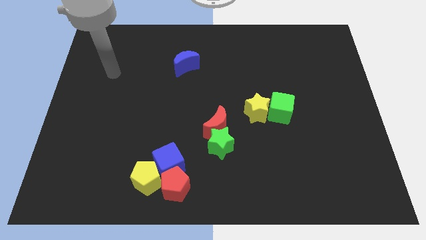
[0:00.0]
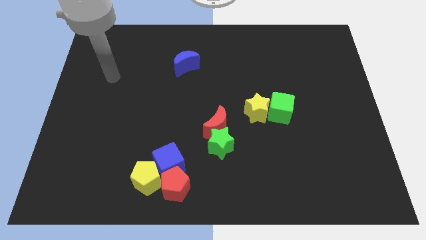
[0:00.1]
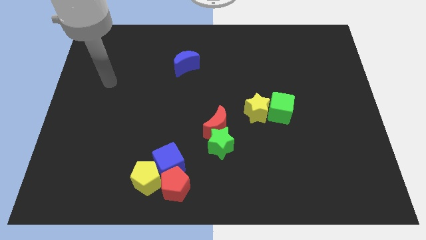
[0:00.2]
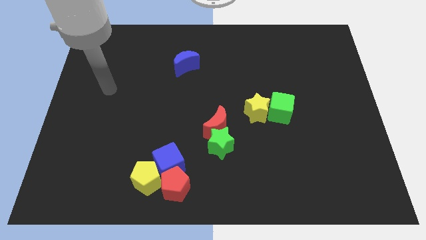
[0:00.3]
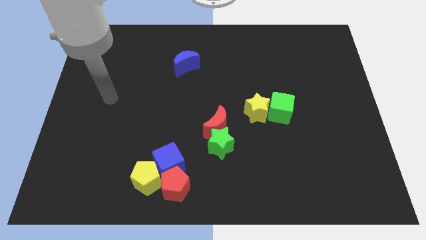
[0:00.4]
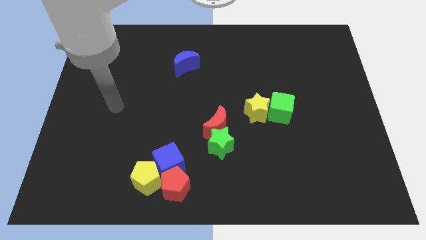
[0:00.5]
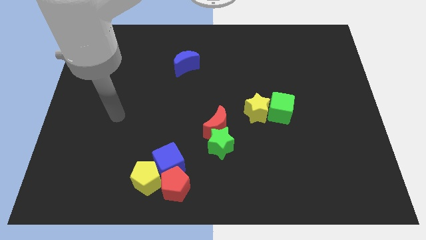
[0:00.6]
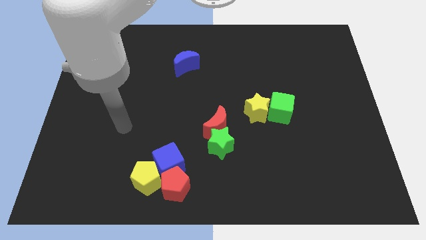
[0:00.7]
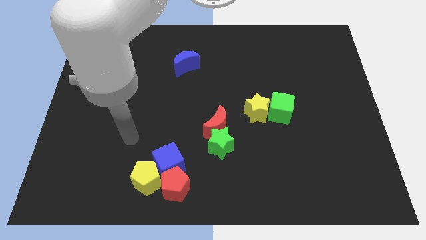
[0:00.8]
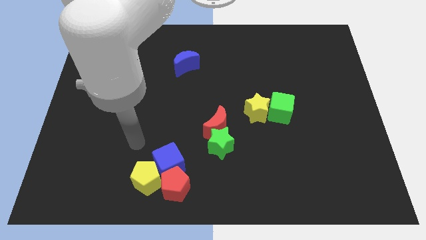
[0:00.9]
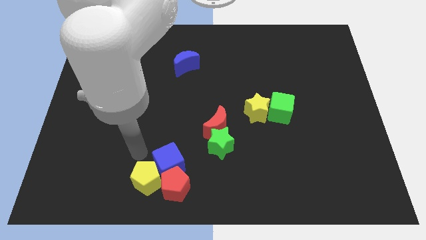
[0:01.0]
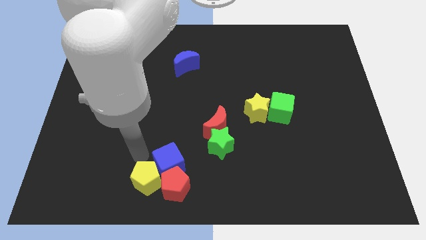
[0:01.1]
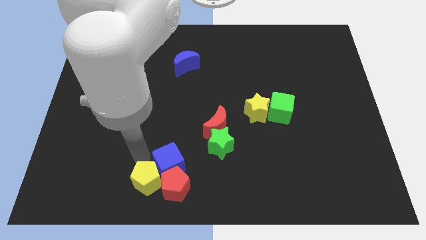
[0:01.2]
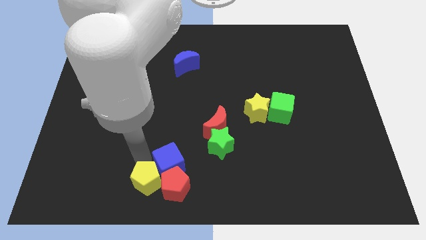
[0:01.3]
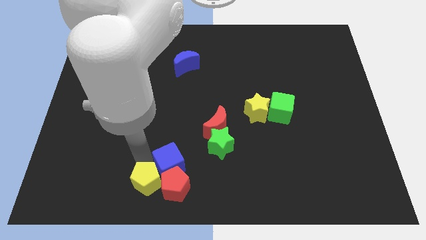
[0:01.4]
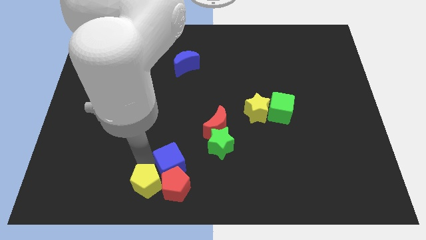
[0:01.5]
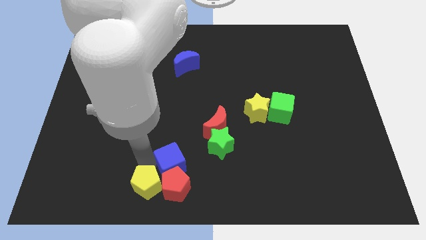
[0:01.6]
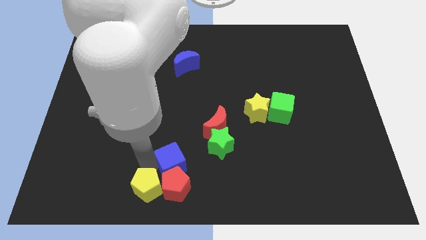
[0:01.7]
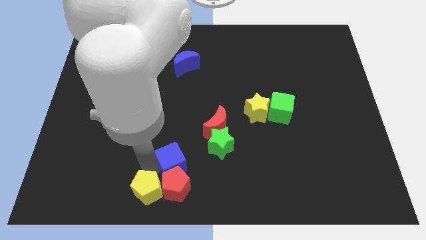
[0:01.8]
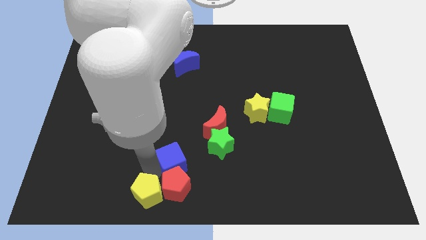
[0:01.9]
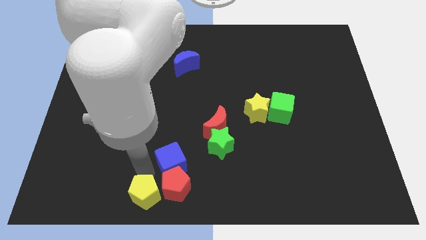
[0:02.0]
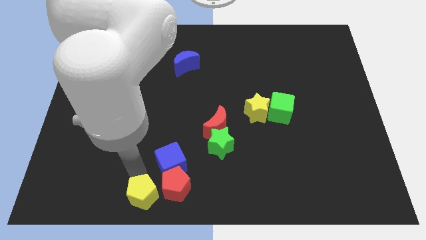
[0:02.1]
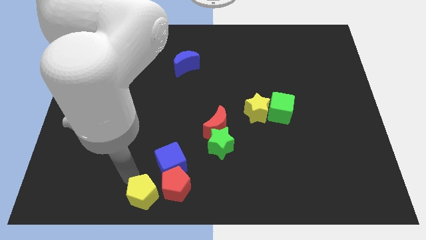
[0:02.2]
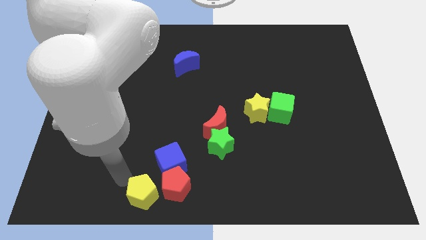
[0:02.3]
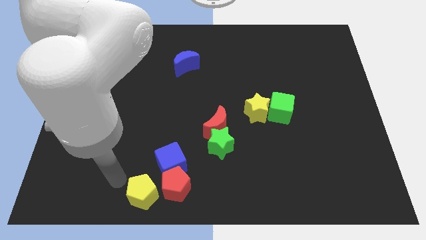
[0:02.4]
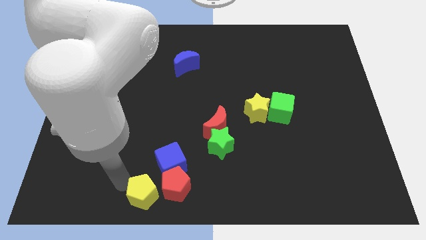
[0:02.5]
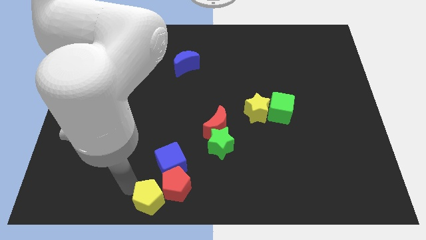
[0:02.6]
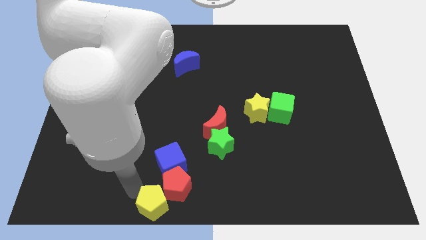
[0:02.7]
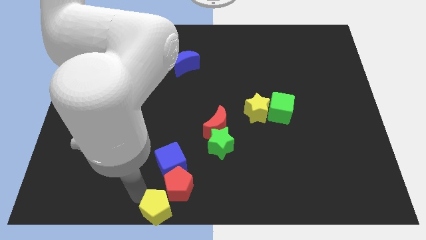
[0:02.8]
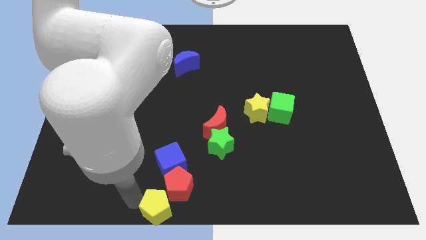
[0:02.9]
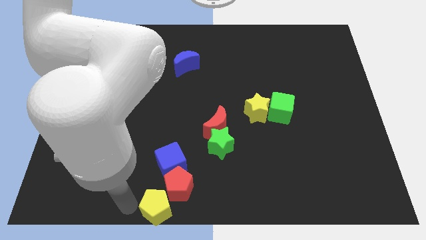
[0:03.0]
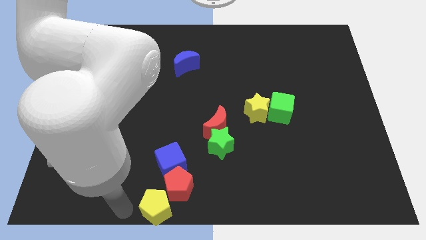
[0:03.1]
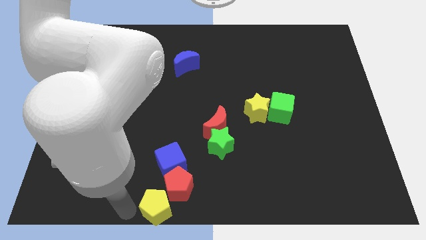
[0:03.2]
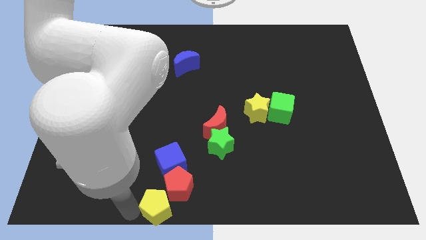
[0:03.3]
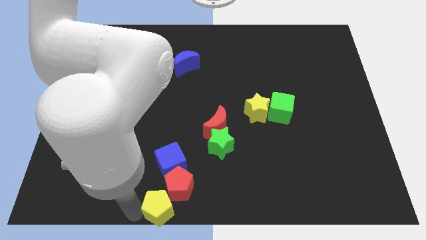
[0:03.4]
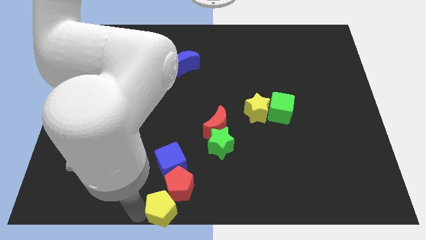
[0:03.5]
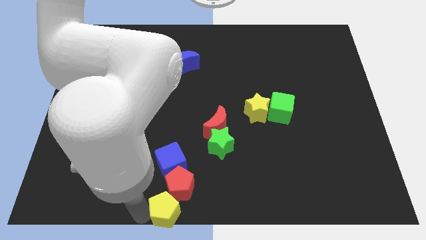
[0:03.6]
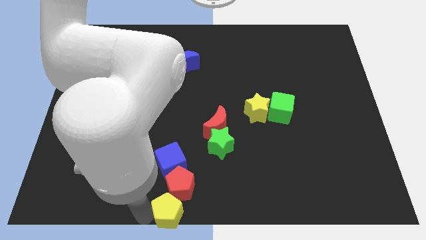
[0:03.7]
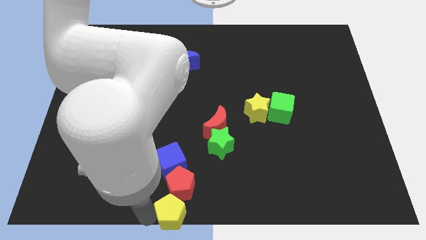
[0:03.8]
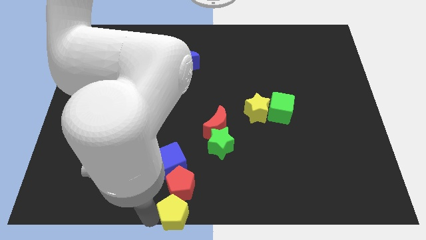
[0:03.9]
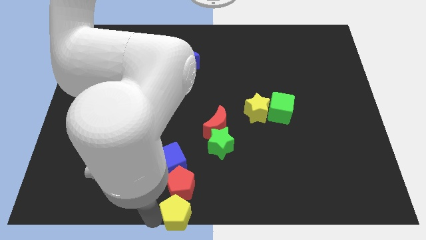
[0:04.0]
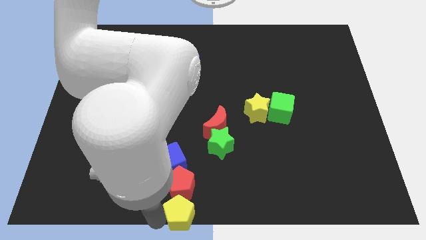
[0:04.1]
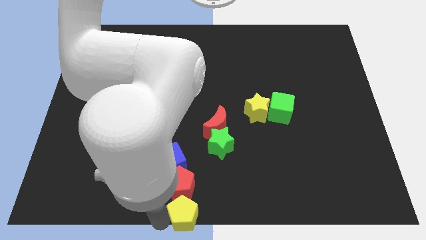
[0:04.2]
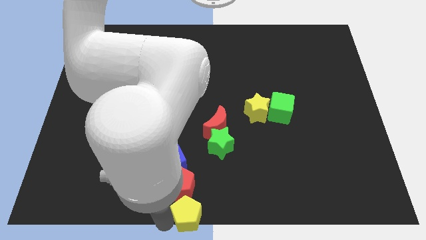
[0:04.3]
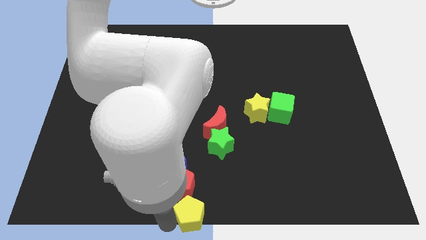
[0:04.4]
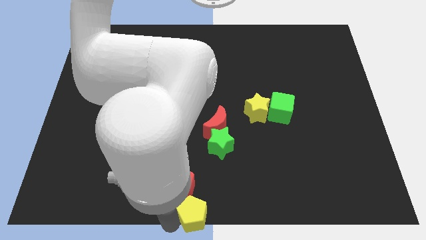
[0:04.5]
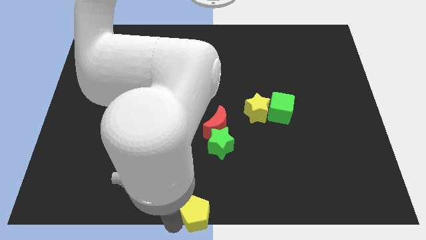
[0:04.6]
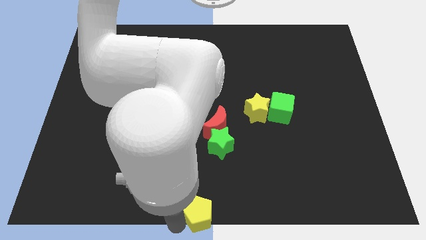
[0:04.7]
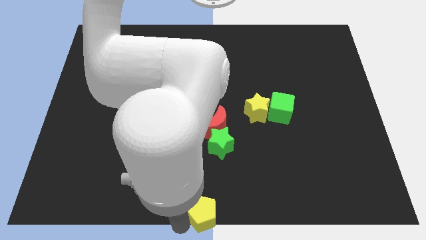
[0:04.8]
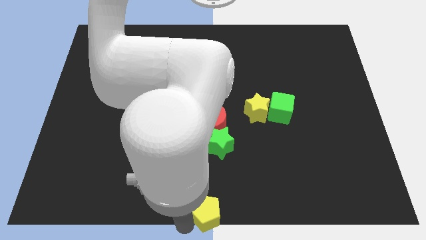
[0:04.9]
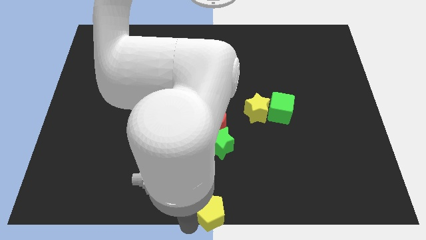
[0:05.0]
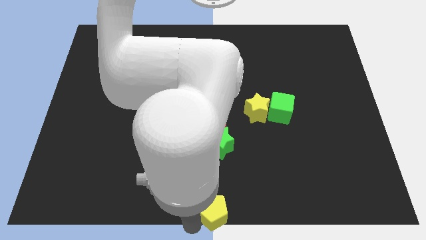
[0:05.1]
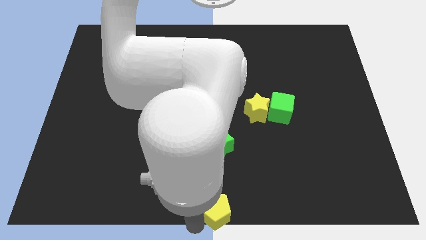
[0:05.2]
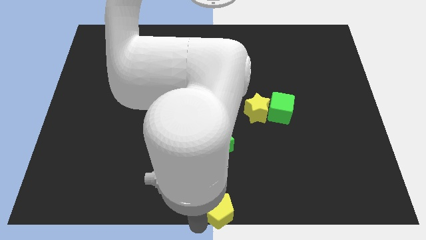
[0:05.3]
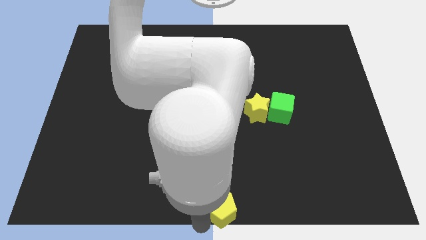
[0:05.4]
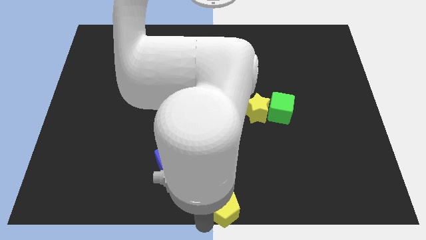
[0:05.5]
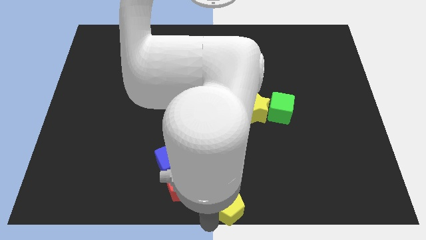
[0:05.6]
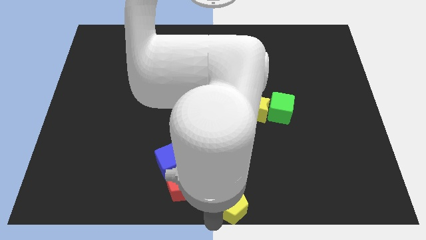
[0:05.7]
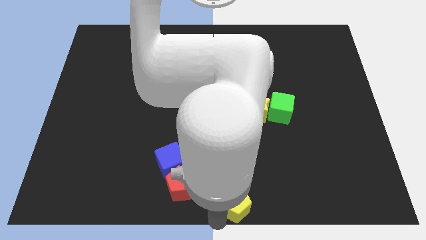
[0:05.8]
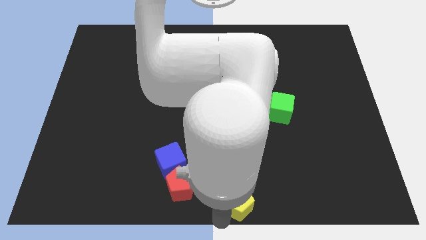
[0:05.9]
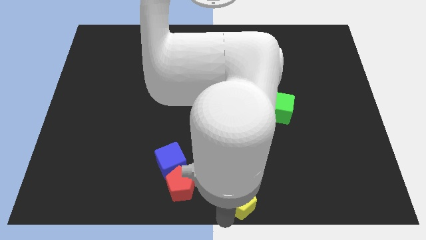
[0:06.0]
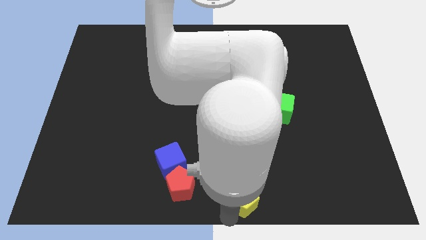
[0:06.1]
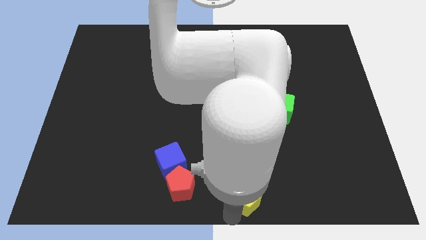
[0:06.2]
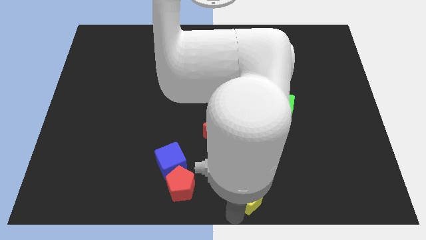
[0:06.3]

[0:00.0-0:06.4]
slide the yellow pentagon to the right

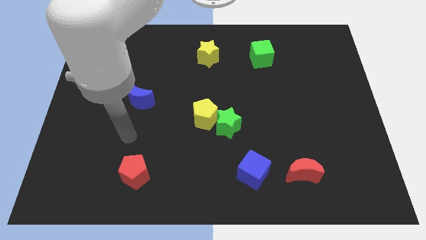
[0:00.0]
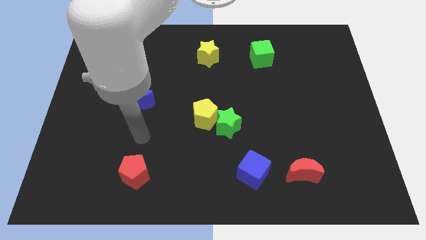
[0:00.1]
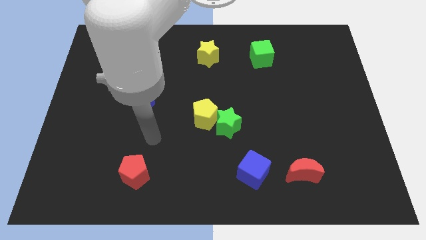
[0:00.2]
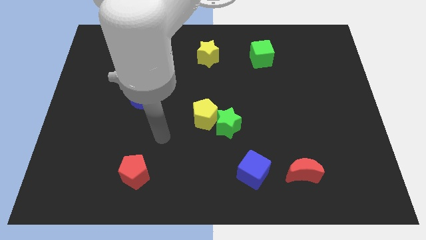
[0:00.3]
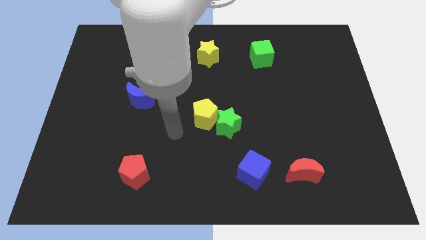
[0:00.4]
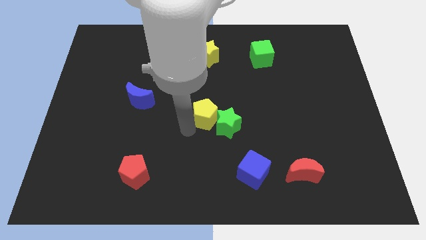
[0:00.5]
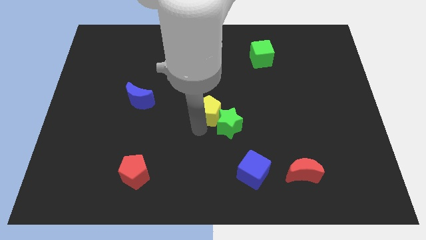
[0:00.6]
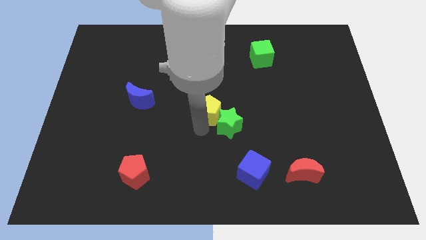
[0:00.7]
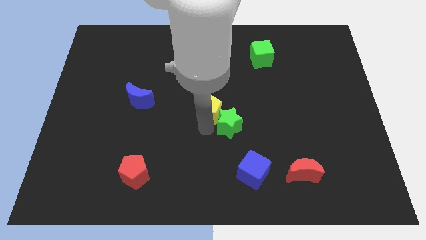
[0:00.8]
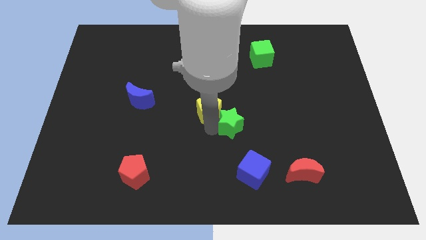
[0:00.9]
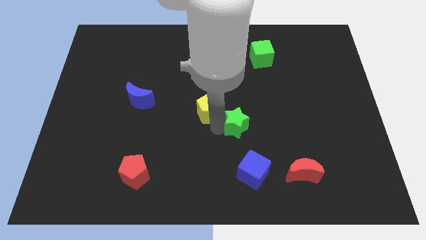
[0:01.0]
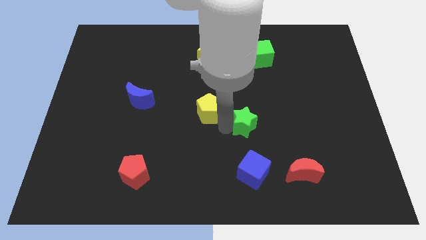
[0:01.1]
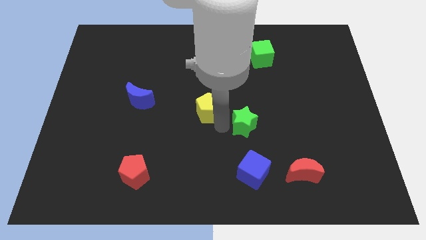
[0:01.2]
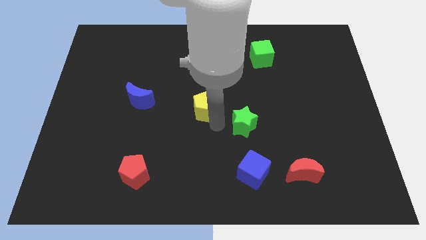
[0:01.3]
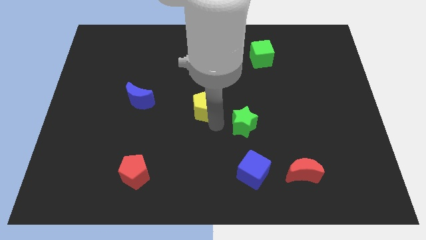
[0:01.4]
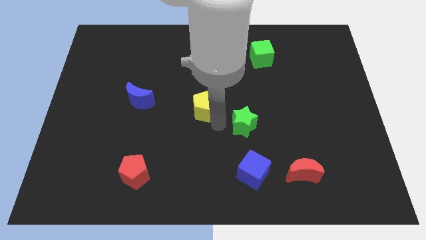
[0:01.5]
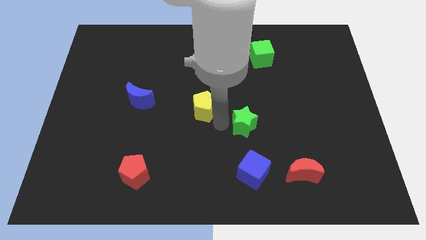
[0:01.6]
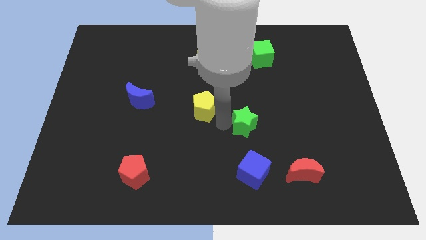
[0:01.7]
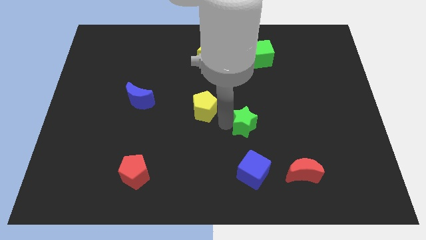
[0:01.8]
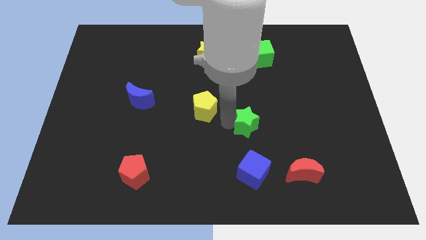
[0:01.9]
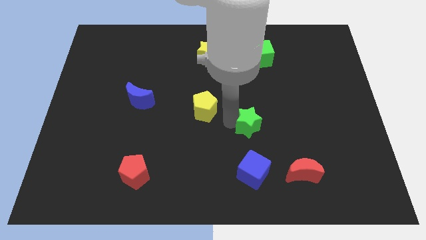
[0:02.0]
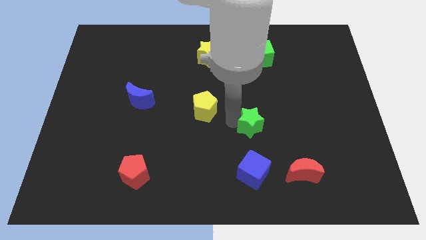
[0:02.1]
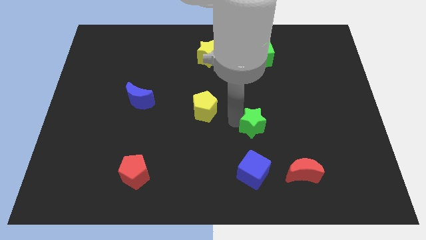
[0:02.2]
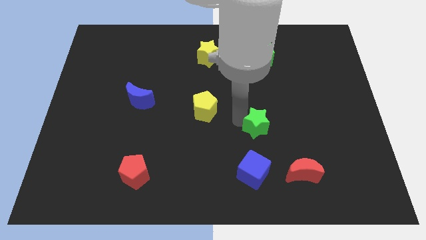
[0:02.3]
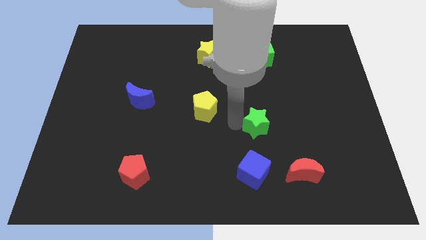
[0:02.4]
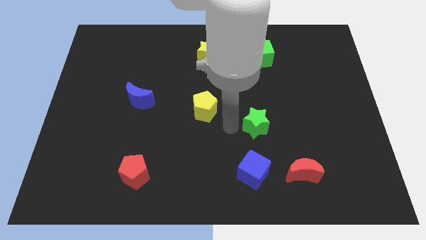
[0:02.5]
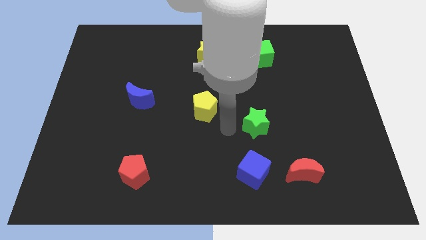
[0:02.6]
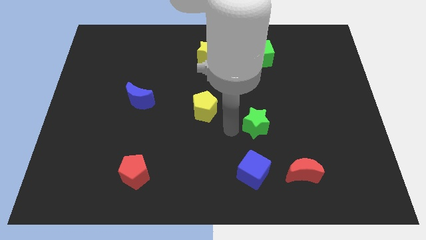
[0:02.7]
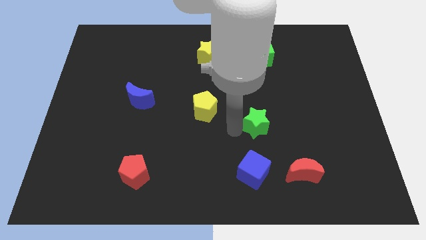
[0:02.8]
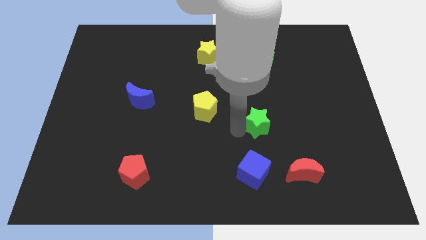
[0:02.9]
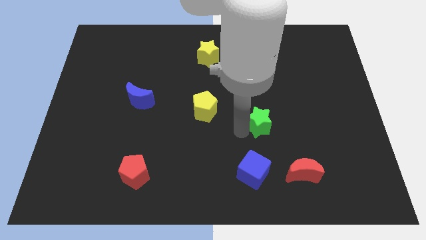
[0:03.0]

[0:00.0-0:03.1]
slightly move the green star right
